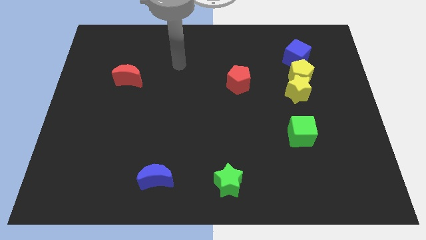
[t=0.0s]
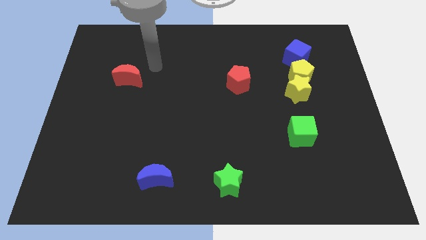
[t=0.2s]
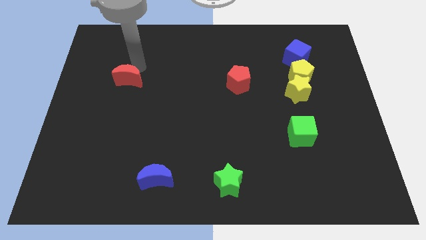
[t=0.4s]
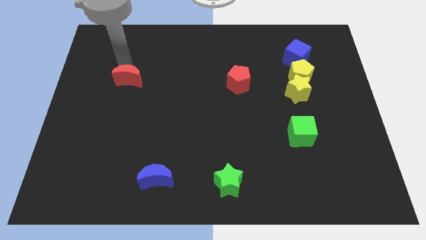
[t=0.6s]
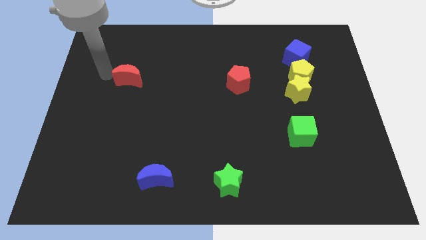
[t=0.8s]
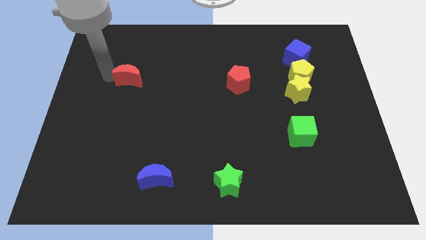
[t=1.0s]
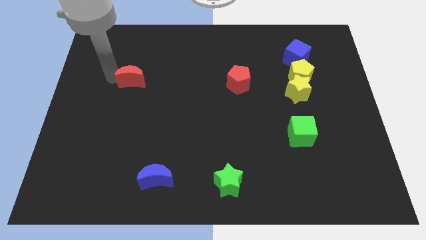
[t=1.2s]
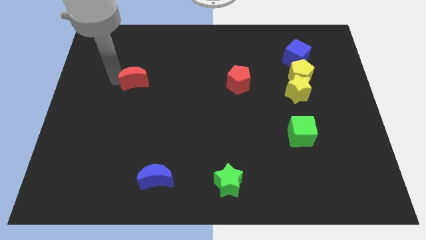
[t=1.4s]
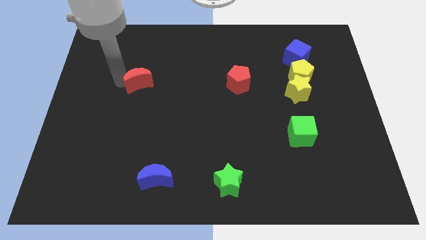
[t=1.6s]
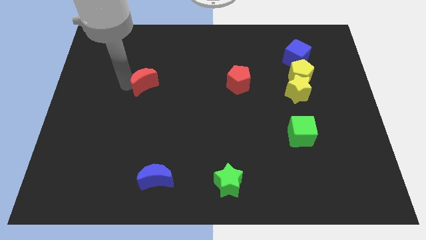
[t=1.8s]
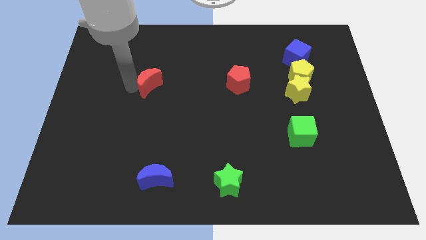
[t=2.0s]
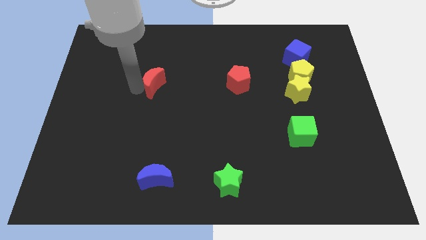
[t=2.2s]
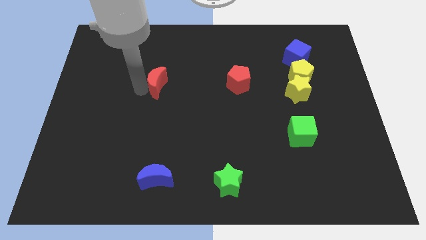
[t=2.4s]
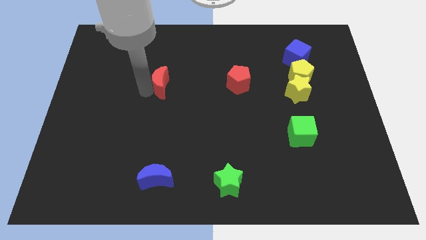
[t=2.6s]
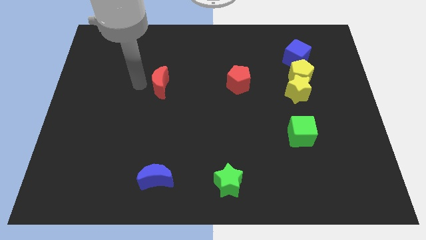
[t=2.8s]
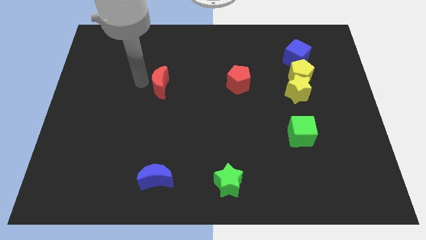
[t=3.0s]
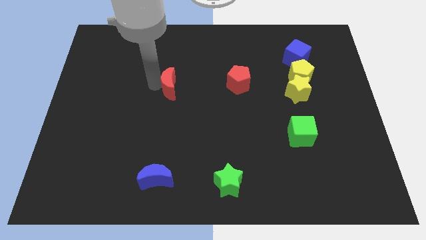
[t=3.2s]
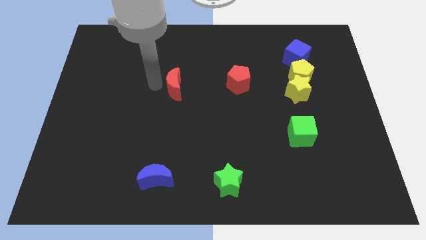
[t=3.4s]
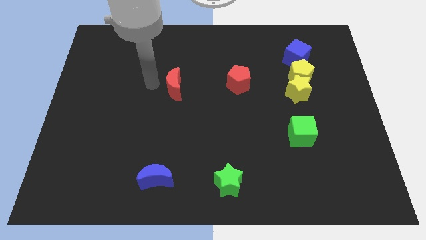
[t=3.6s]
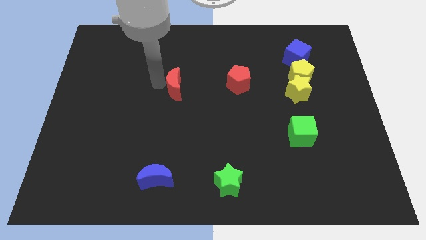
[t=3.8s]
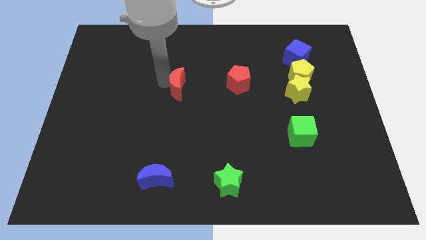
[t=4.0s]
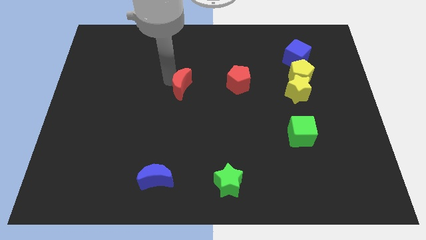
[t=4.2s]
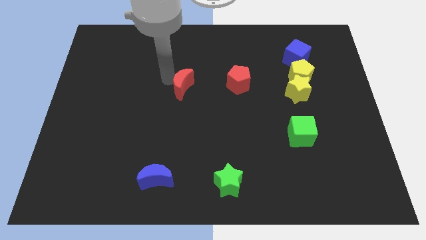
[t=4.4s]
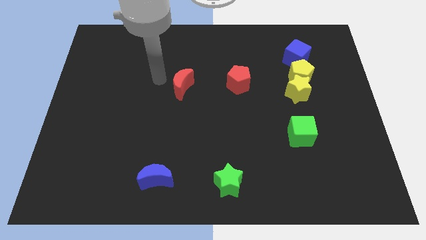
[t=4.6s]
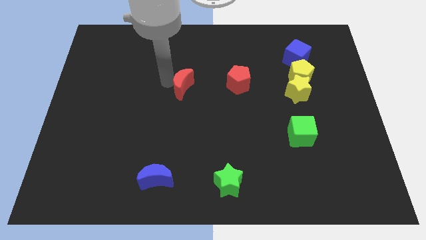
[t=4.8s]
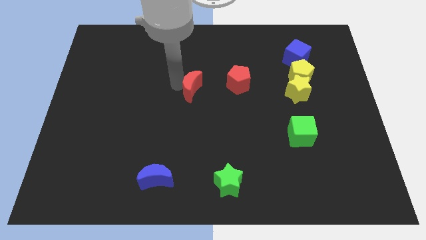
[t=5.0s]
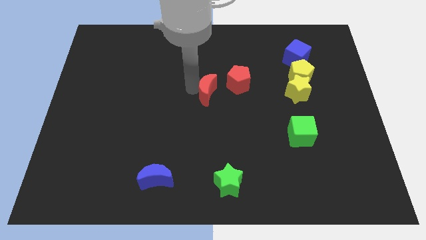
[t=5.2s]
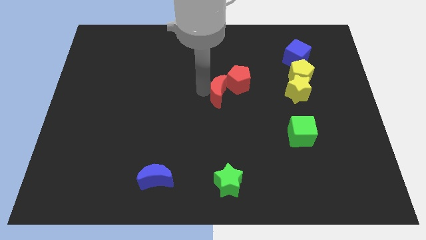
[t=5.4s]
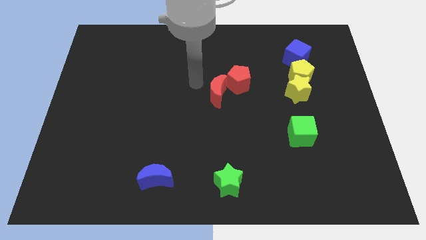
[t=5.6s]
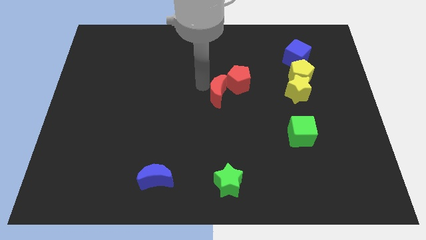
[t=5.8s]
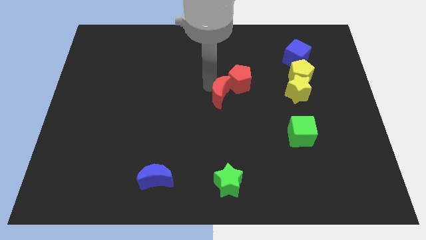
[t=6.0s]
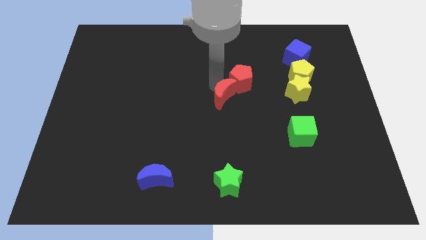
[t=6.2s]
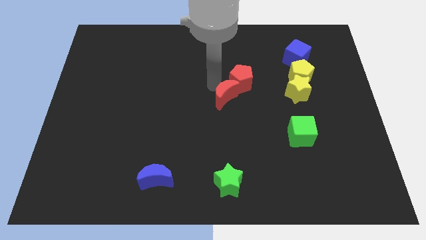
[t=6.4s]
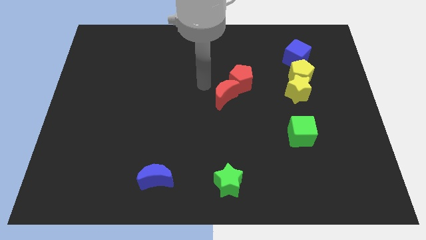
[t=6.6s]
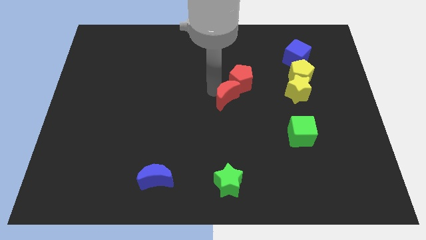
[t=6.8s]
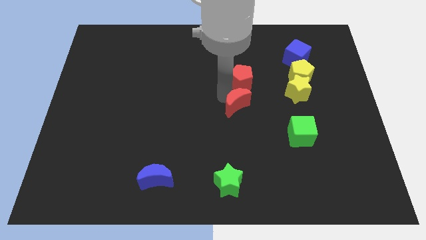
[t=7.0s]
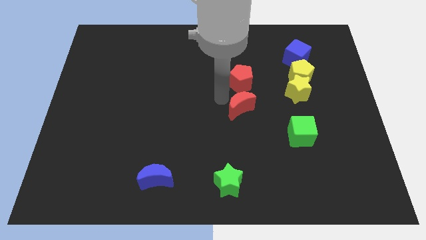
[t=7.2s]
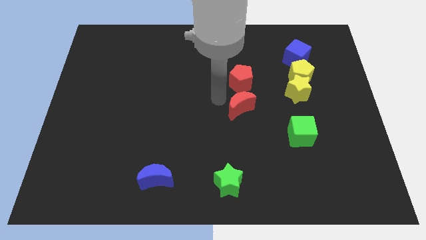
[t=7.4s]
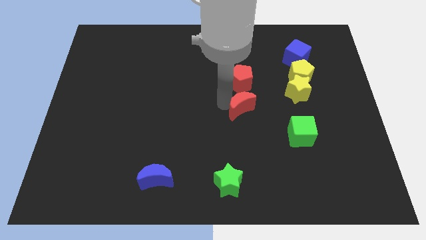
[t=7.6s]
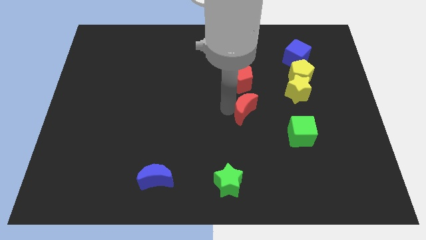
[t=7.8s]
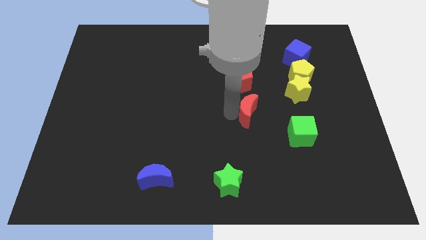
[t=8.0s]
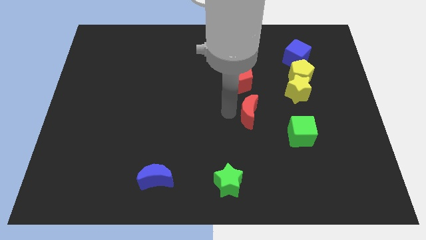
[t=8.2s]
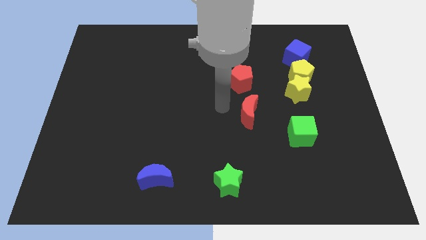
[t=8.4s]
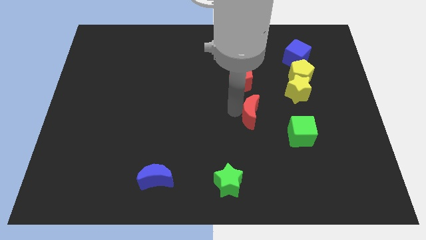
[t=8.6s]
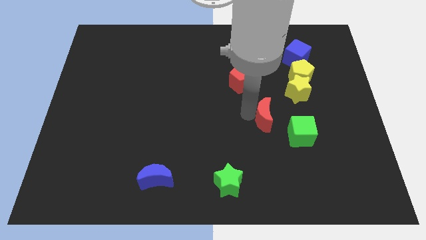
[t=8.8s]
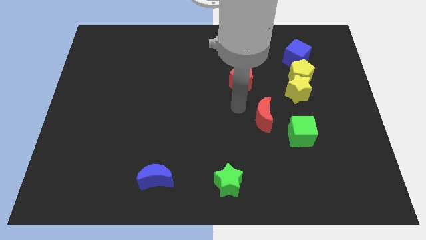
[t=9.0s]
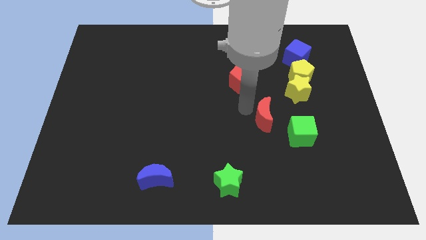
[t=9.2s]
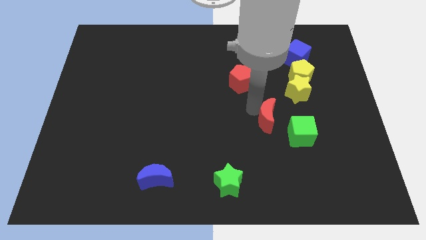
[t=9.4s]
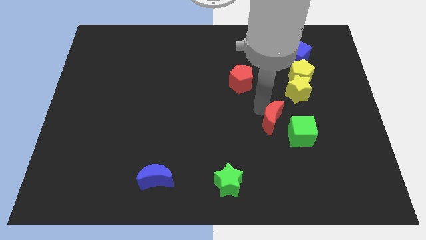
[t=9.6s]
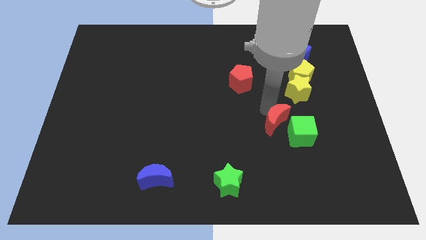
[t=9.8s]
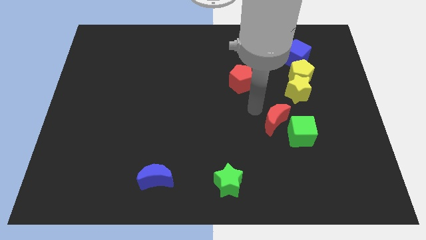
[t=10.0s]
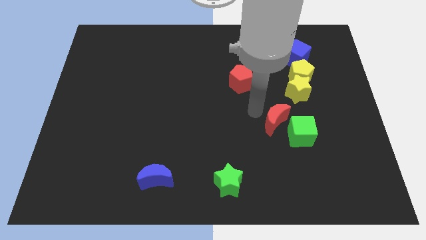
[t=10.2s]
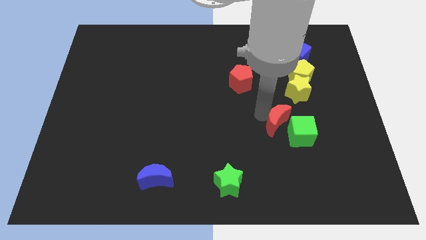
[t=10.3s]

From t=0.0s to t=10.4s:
put the red moon towards the green cube

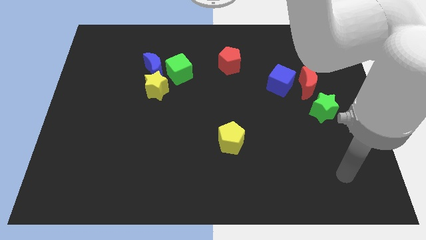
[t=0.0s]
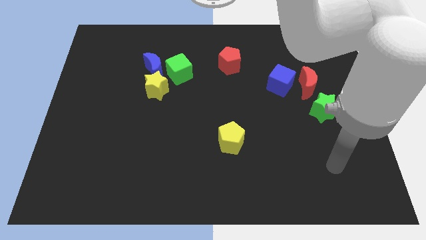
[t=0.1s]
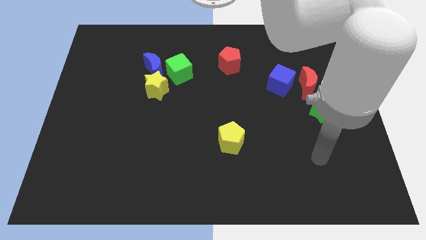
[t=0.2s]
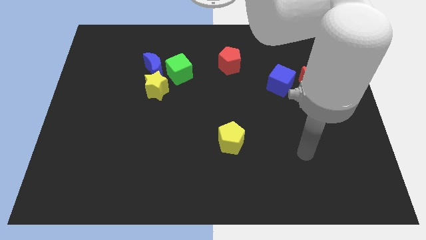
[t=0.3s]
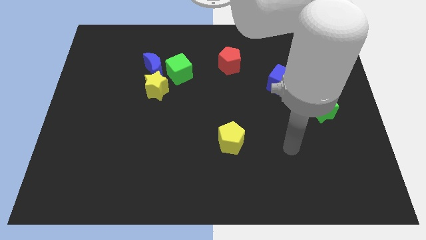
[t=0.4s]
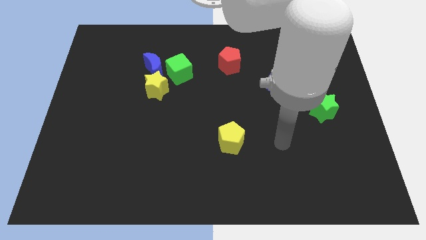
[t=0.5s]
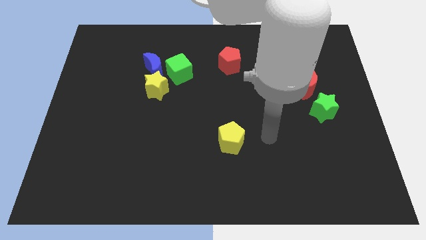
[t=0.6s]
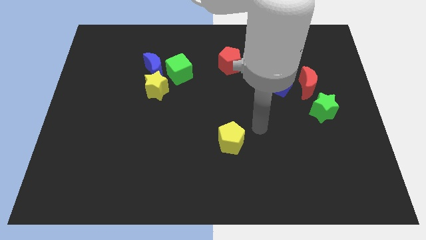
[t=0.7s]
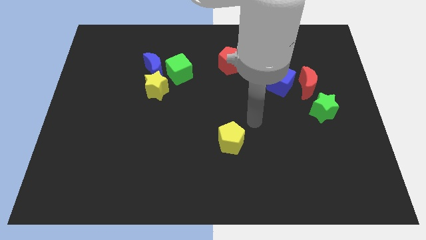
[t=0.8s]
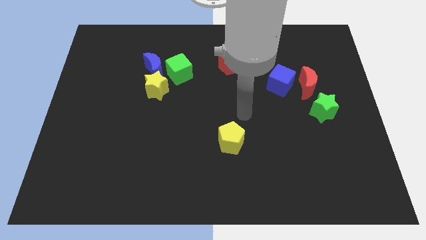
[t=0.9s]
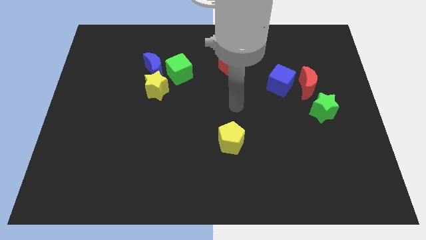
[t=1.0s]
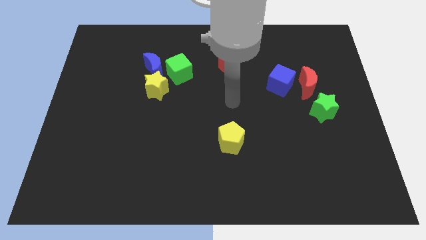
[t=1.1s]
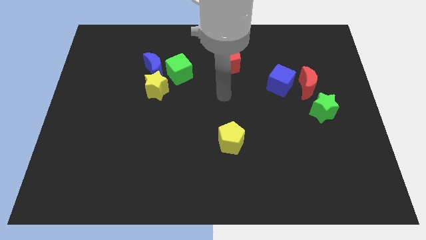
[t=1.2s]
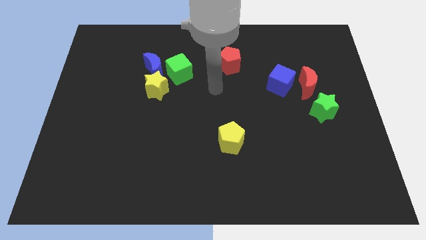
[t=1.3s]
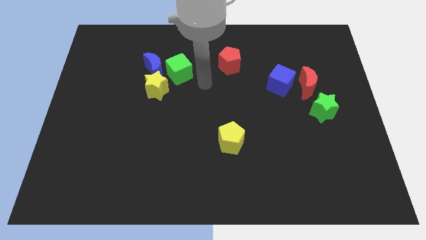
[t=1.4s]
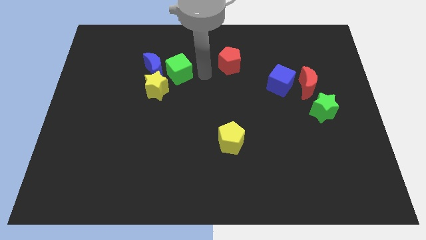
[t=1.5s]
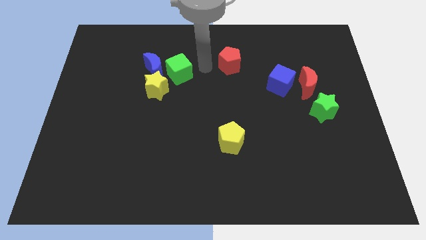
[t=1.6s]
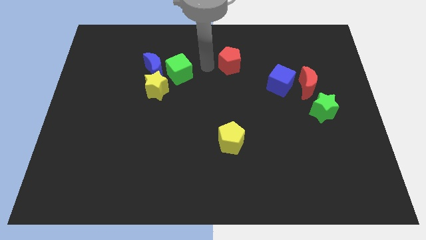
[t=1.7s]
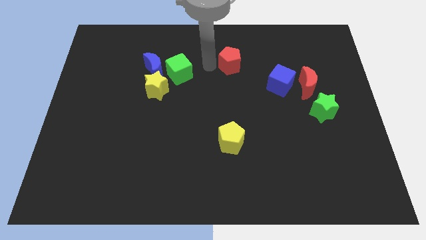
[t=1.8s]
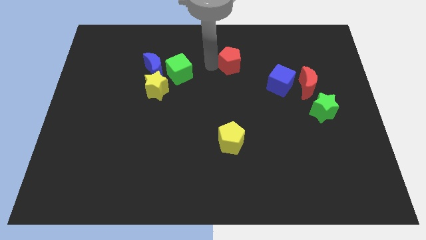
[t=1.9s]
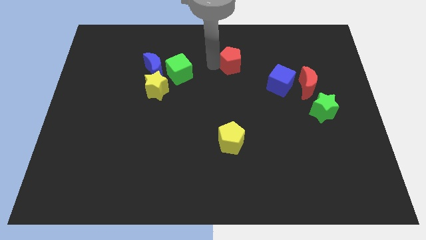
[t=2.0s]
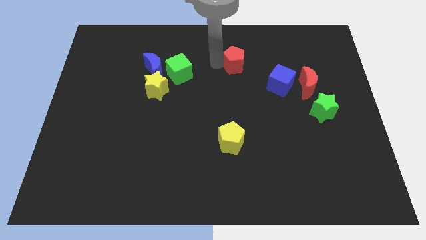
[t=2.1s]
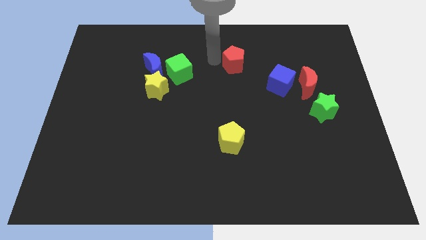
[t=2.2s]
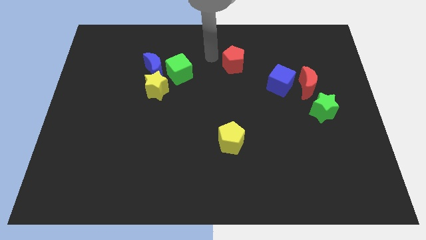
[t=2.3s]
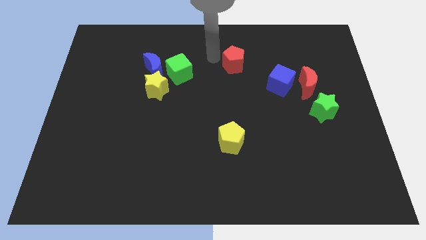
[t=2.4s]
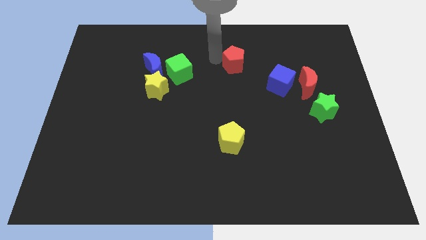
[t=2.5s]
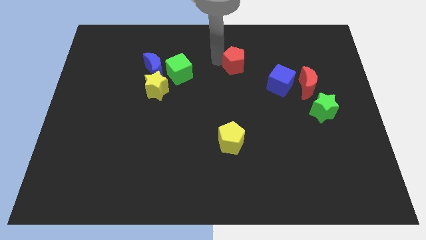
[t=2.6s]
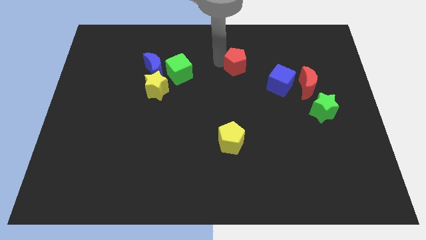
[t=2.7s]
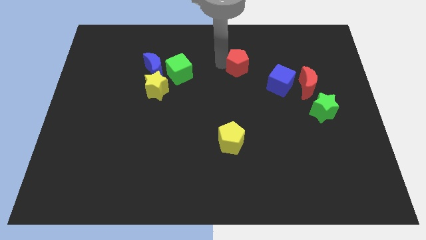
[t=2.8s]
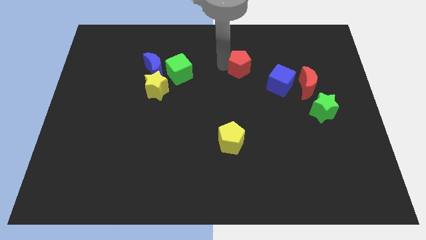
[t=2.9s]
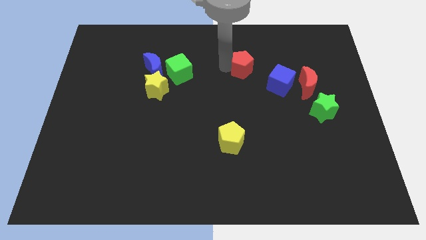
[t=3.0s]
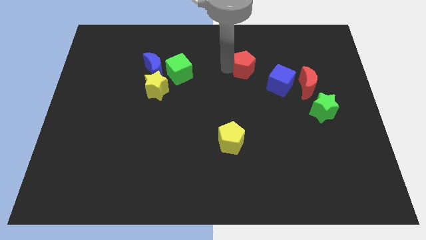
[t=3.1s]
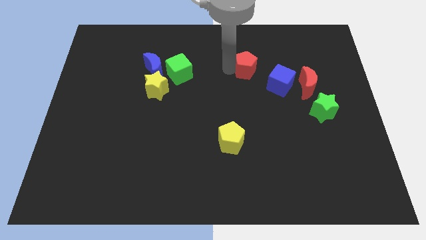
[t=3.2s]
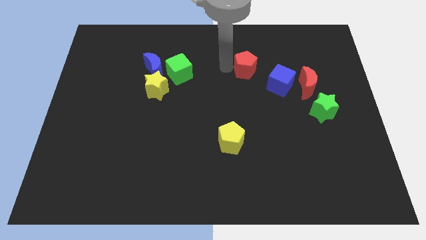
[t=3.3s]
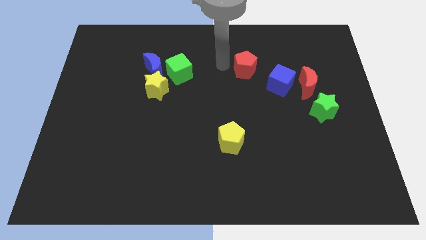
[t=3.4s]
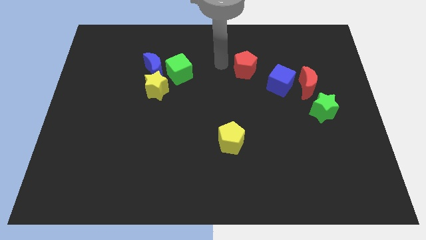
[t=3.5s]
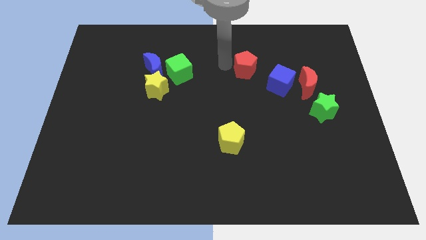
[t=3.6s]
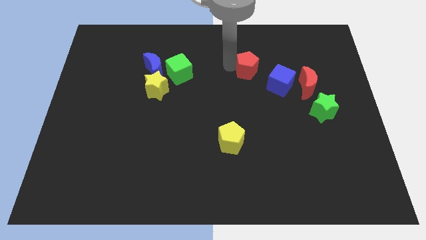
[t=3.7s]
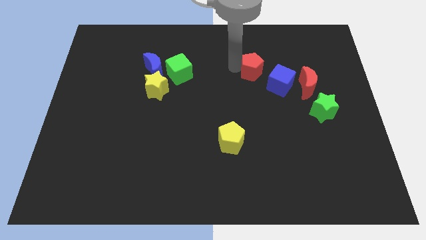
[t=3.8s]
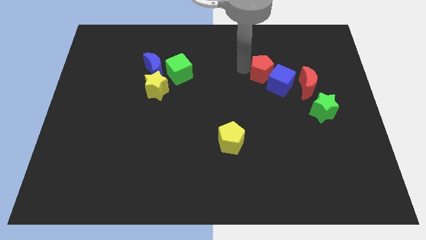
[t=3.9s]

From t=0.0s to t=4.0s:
put the red pentagon close to the blue cube
